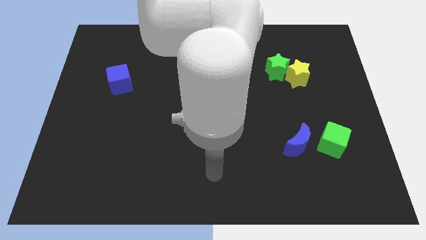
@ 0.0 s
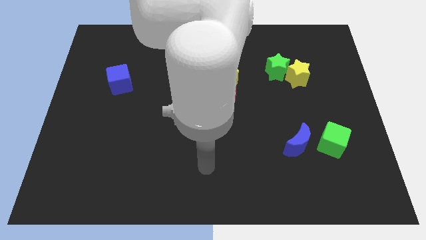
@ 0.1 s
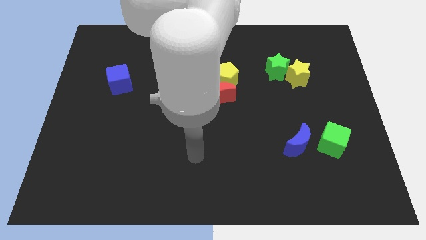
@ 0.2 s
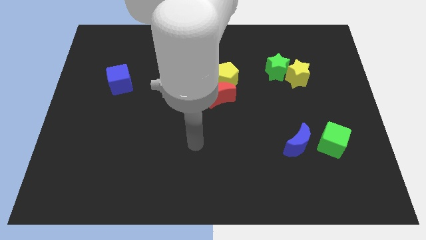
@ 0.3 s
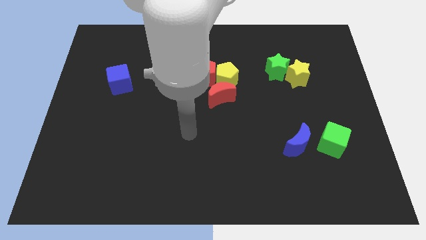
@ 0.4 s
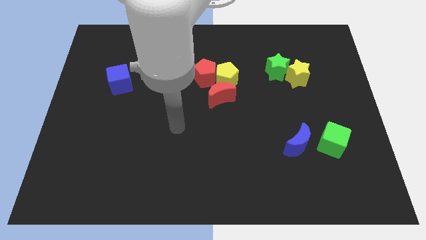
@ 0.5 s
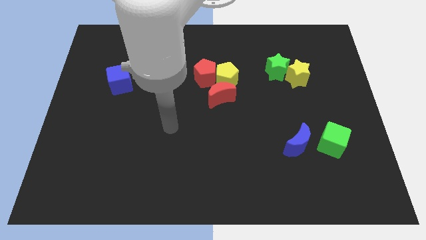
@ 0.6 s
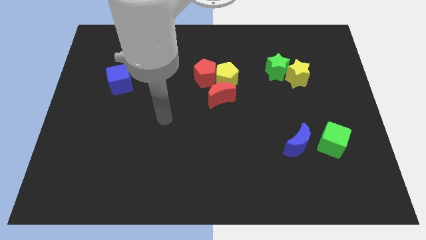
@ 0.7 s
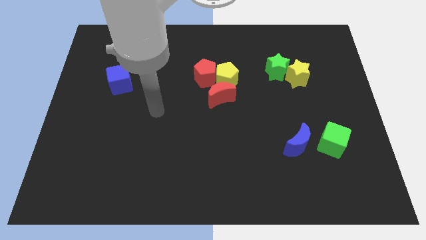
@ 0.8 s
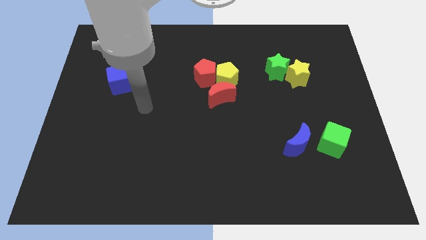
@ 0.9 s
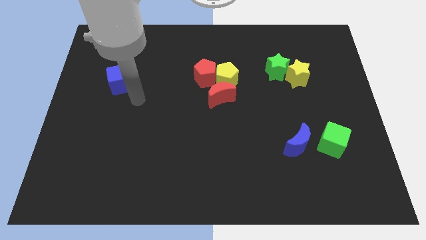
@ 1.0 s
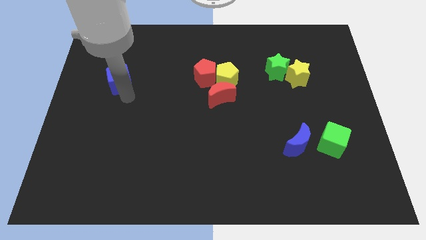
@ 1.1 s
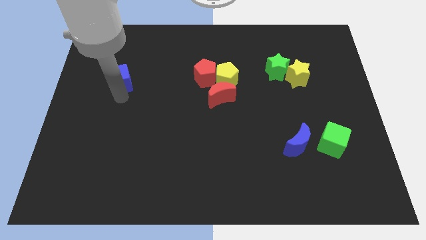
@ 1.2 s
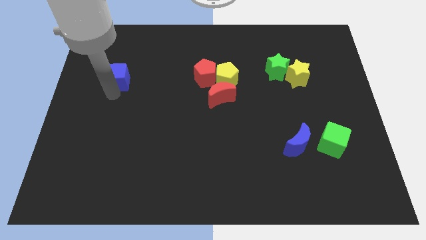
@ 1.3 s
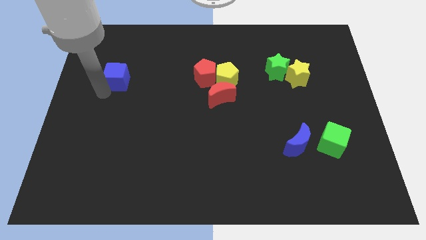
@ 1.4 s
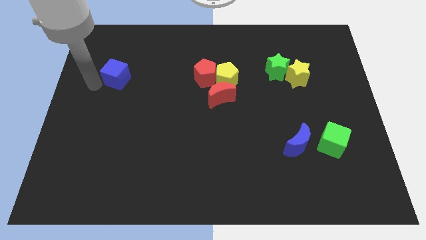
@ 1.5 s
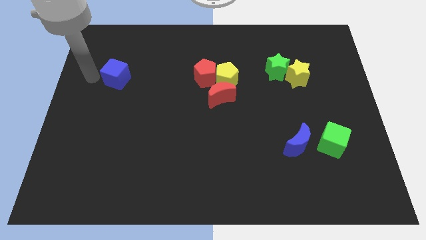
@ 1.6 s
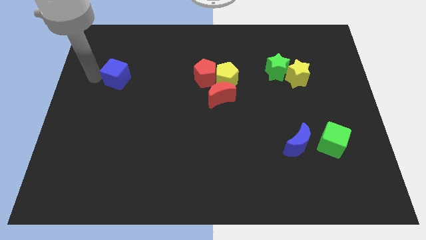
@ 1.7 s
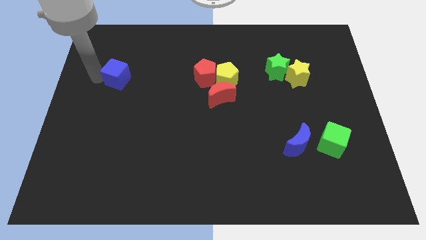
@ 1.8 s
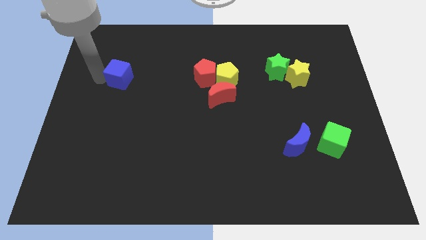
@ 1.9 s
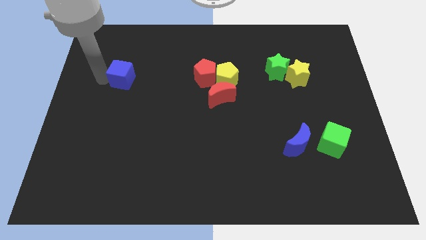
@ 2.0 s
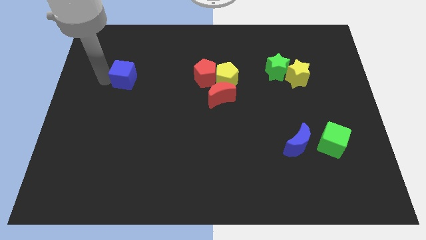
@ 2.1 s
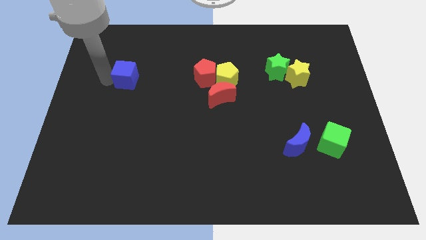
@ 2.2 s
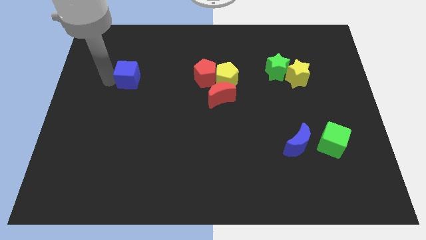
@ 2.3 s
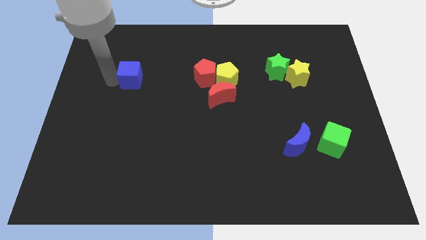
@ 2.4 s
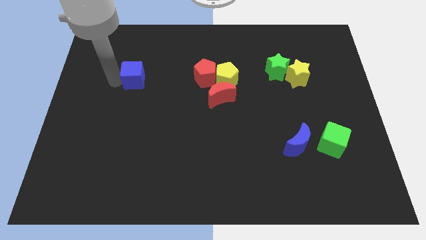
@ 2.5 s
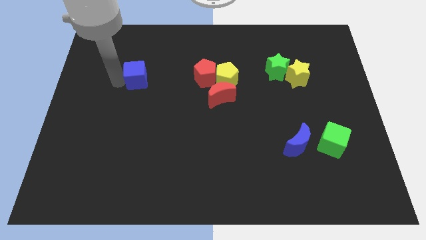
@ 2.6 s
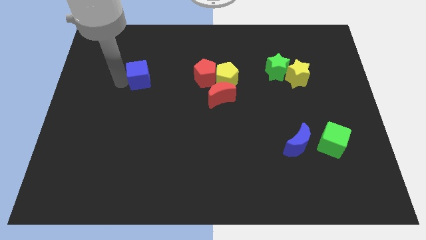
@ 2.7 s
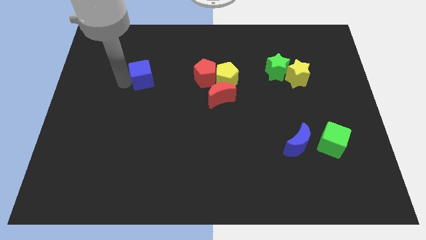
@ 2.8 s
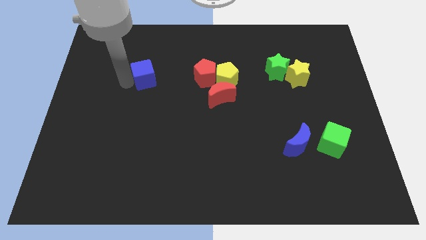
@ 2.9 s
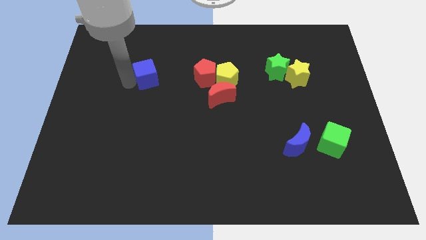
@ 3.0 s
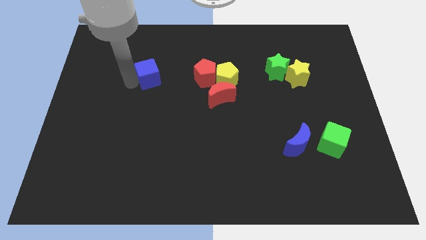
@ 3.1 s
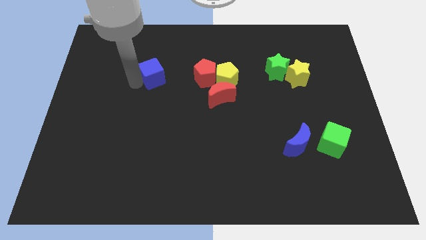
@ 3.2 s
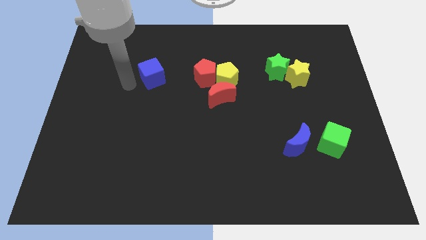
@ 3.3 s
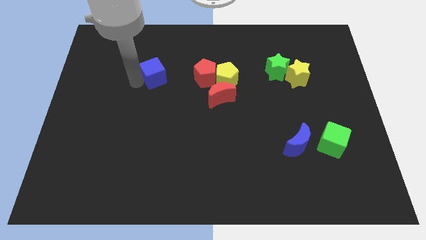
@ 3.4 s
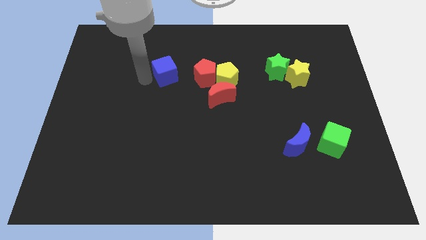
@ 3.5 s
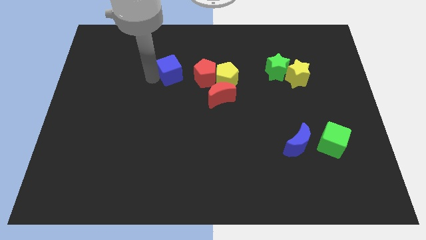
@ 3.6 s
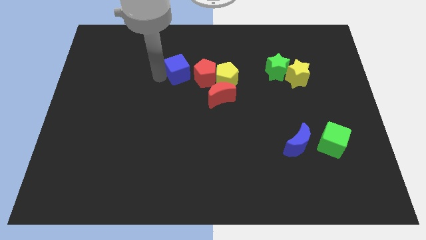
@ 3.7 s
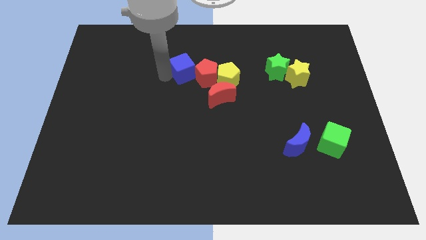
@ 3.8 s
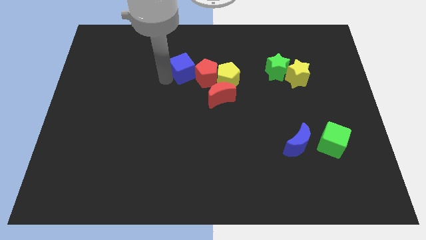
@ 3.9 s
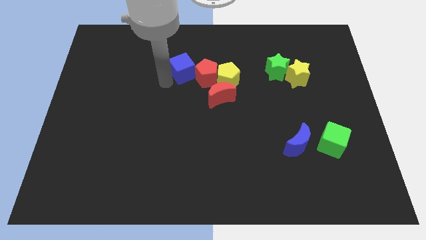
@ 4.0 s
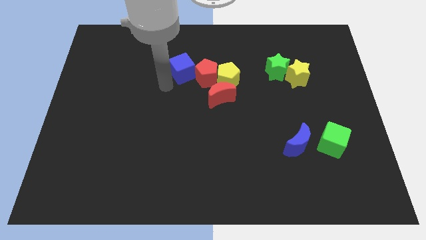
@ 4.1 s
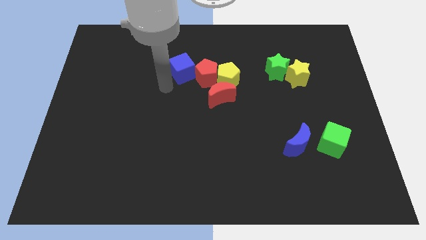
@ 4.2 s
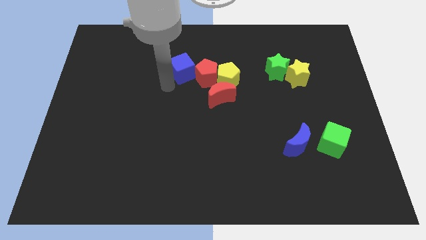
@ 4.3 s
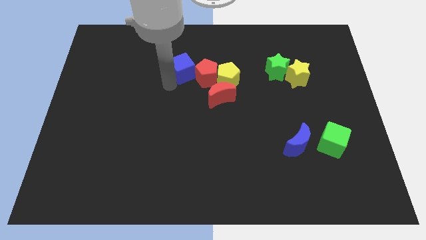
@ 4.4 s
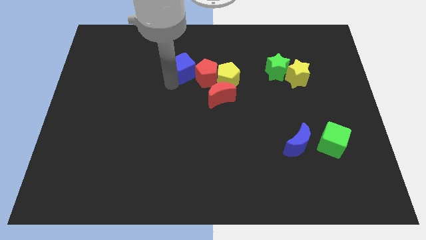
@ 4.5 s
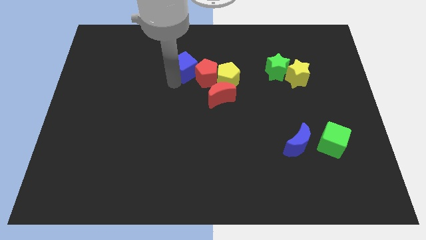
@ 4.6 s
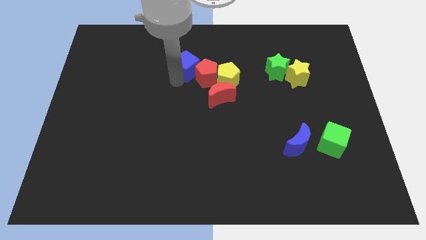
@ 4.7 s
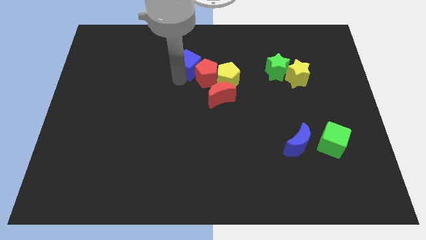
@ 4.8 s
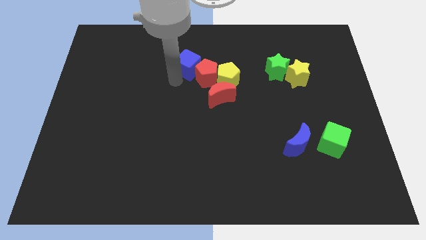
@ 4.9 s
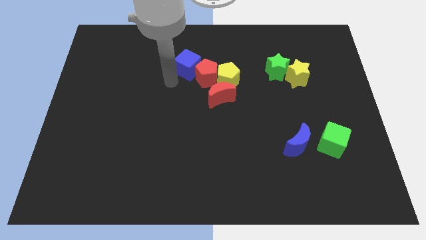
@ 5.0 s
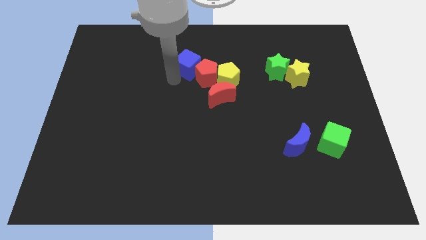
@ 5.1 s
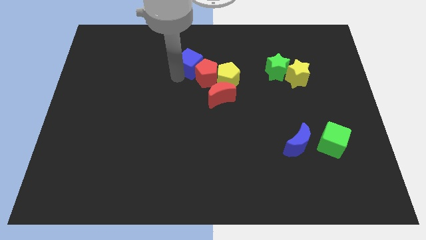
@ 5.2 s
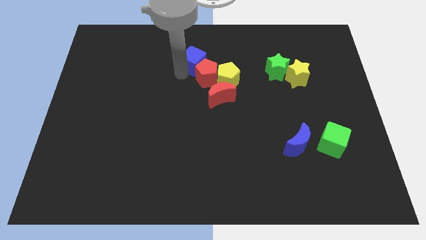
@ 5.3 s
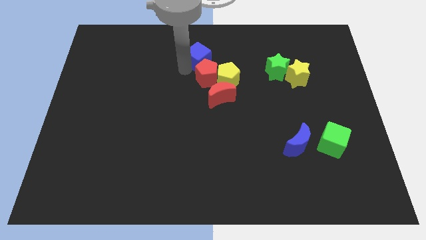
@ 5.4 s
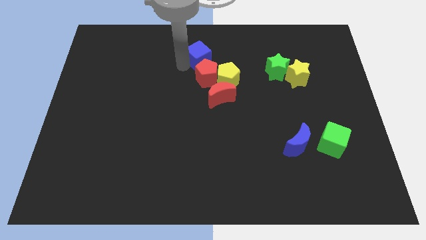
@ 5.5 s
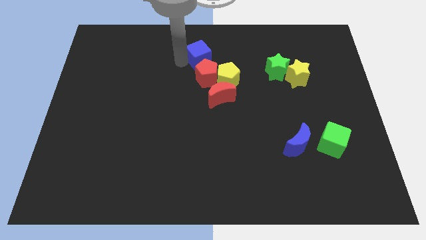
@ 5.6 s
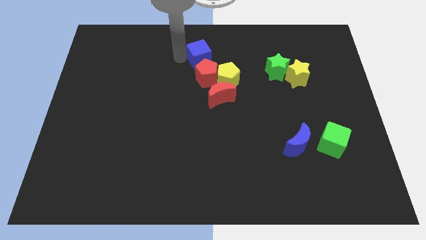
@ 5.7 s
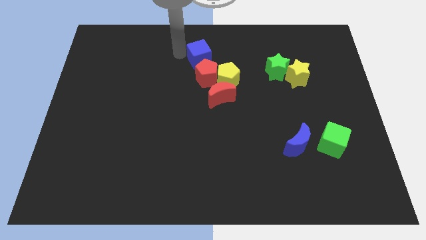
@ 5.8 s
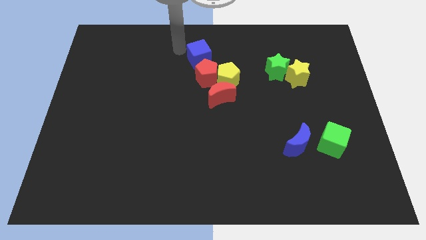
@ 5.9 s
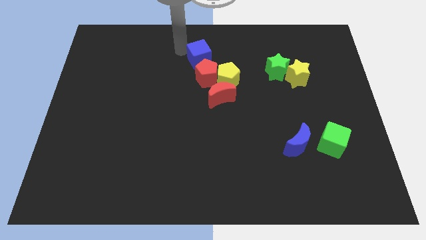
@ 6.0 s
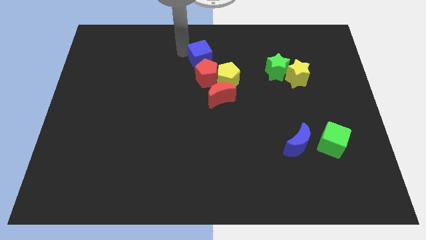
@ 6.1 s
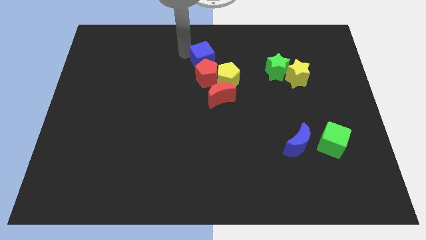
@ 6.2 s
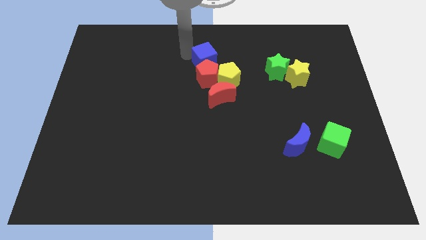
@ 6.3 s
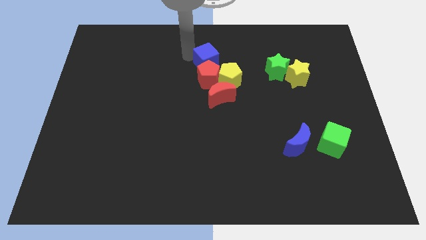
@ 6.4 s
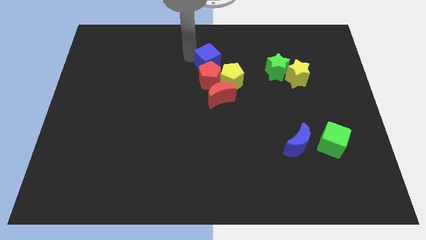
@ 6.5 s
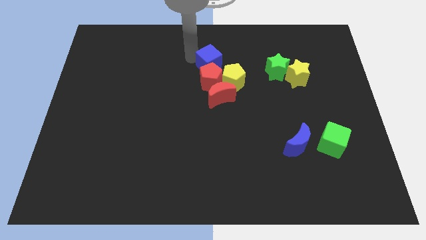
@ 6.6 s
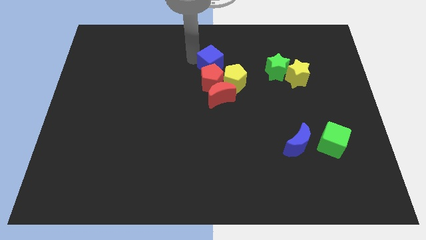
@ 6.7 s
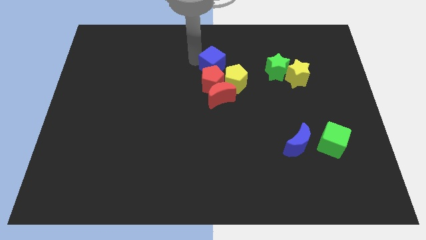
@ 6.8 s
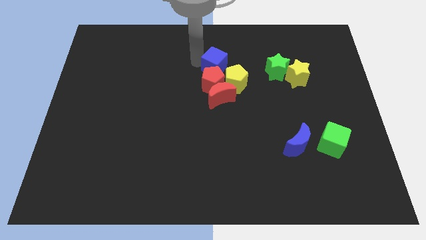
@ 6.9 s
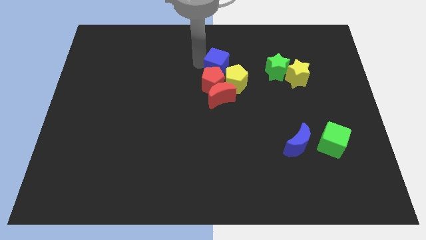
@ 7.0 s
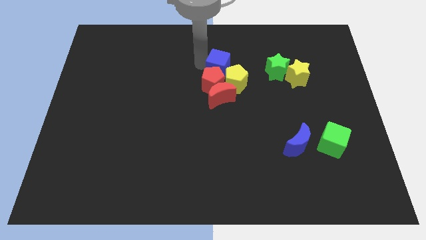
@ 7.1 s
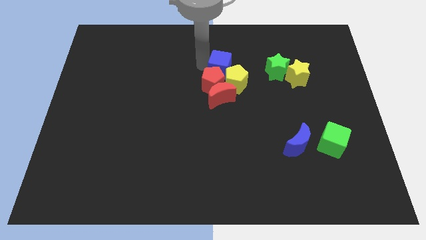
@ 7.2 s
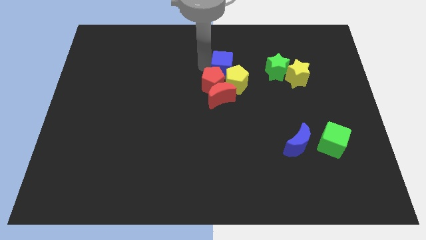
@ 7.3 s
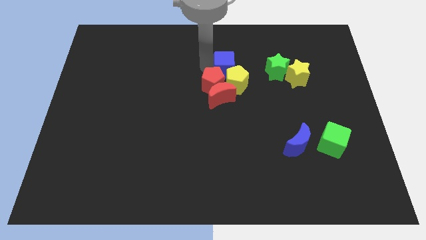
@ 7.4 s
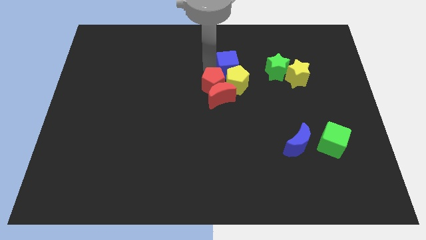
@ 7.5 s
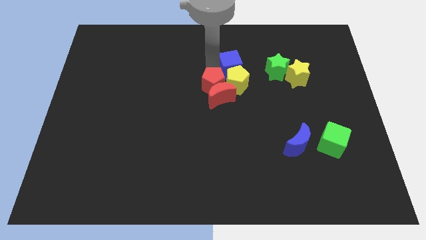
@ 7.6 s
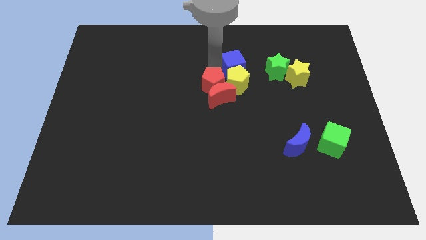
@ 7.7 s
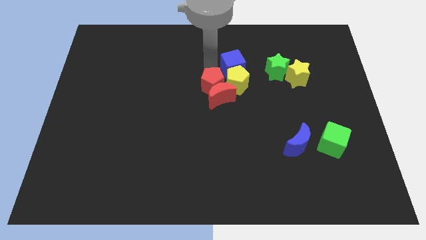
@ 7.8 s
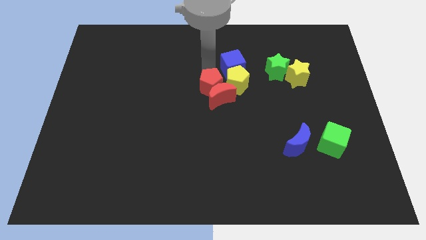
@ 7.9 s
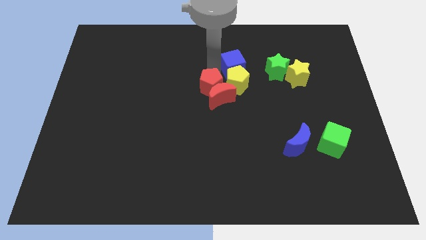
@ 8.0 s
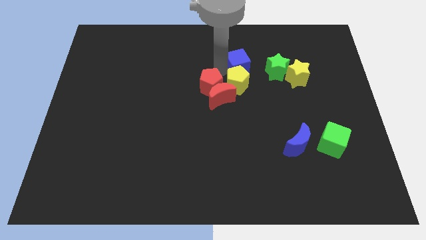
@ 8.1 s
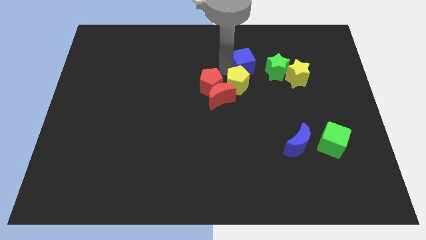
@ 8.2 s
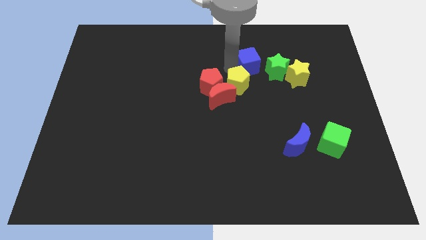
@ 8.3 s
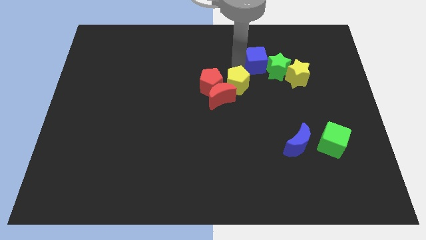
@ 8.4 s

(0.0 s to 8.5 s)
slide the blue cube towards the green star
